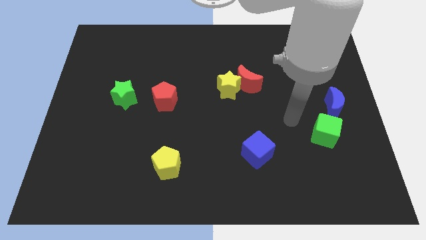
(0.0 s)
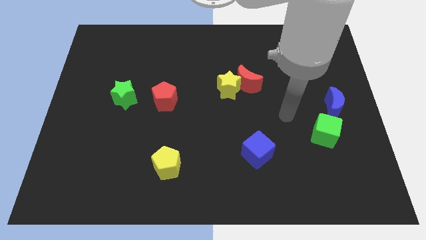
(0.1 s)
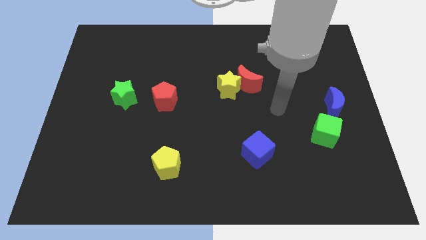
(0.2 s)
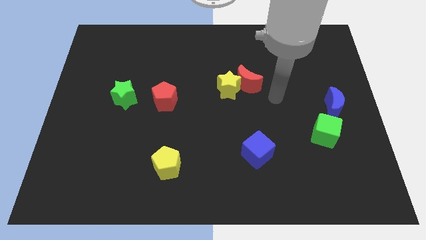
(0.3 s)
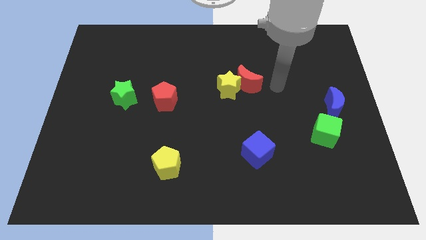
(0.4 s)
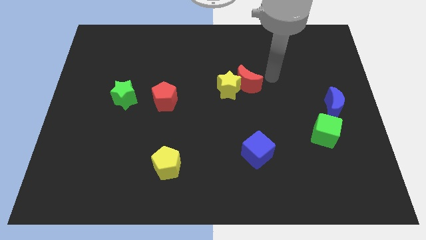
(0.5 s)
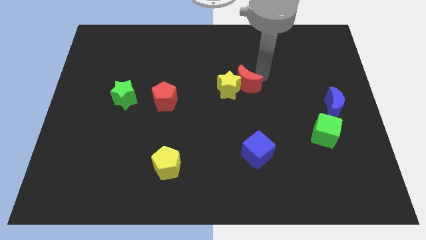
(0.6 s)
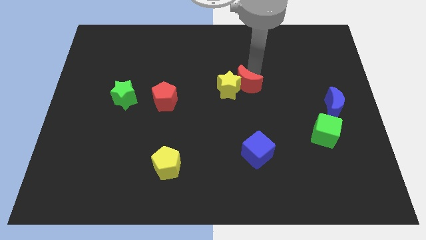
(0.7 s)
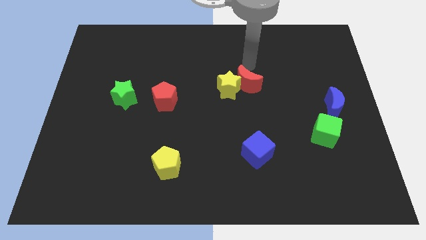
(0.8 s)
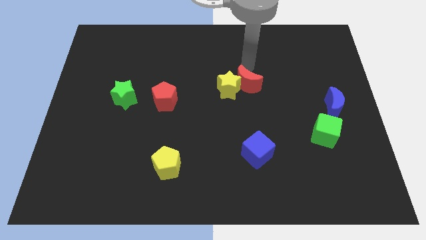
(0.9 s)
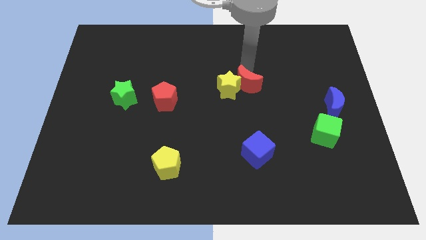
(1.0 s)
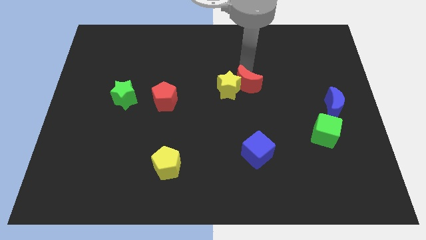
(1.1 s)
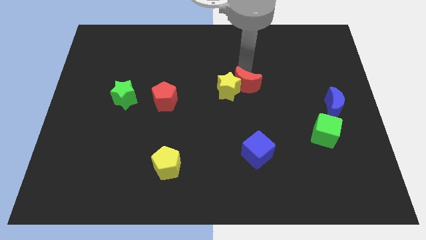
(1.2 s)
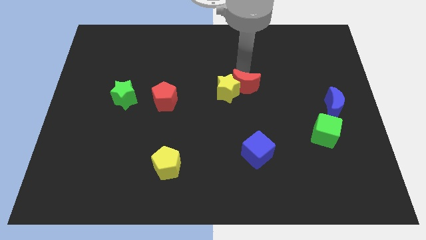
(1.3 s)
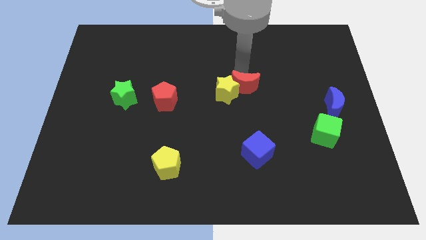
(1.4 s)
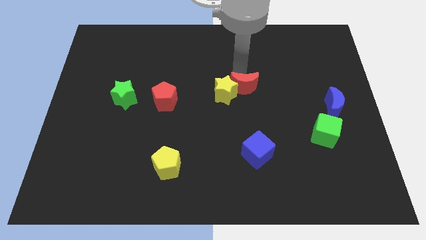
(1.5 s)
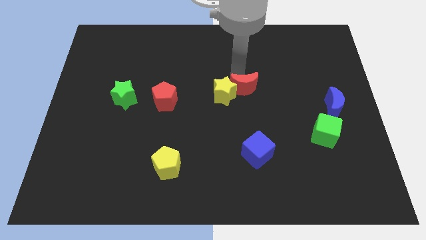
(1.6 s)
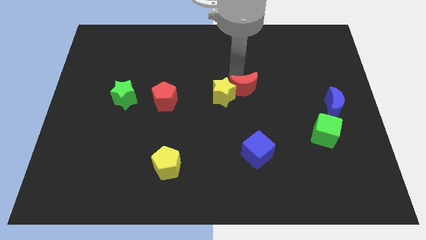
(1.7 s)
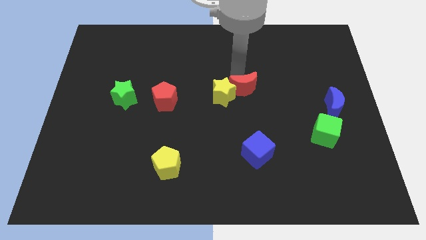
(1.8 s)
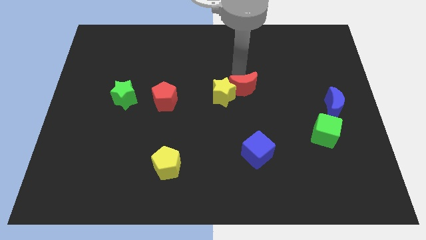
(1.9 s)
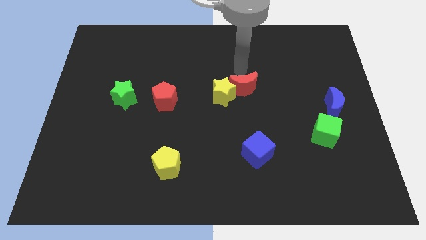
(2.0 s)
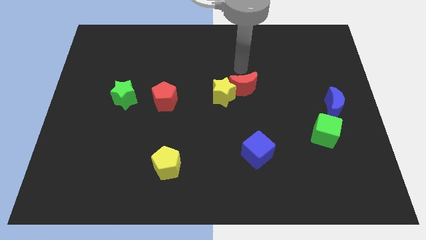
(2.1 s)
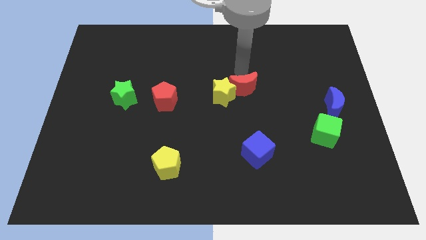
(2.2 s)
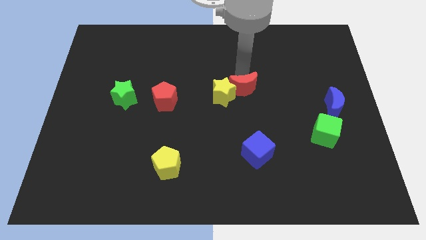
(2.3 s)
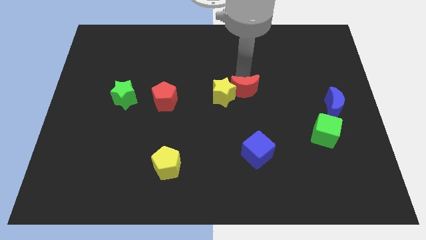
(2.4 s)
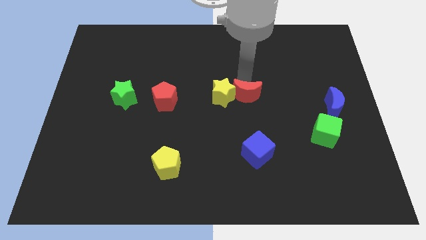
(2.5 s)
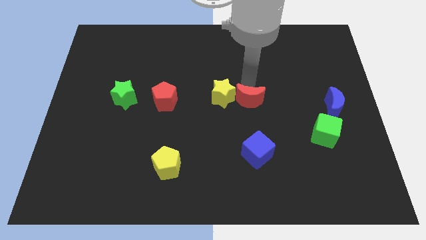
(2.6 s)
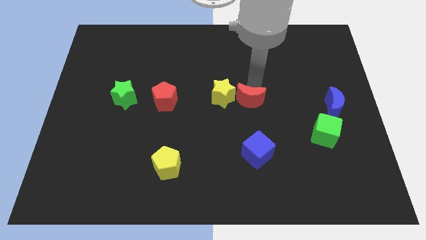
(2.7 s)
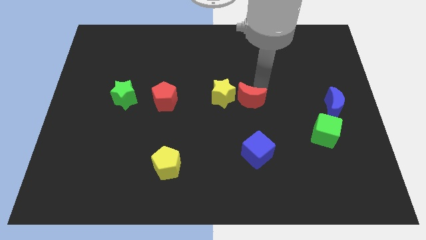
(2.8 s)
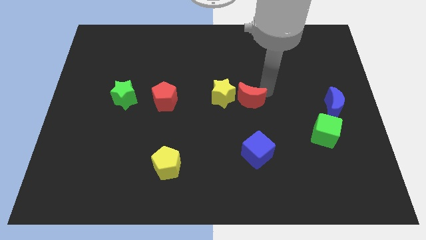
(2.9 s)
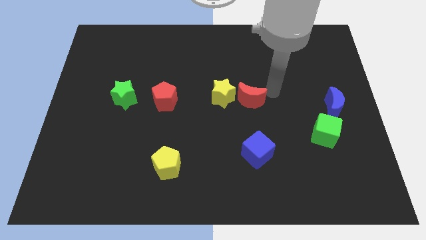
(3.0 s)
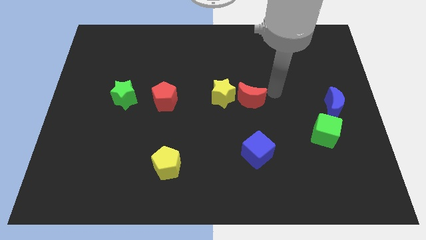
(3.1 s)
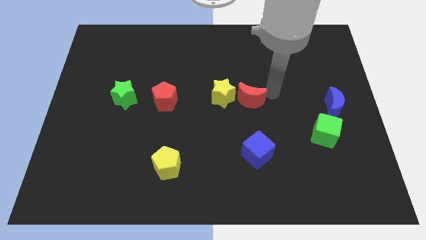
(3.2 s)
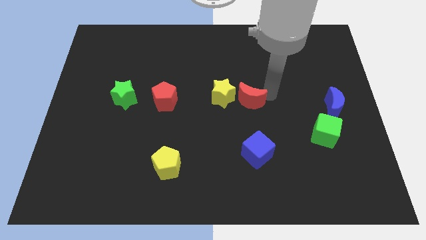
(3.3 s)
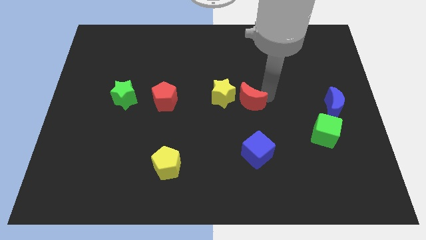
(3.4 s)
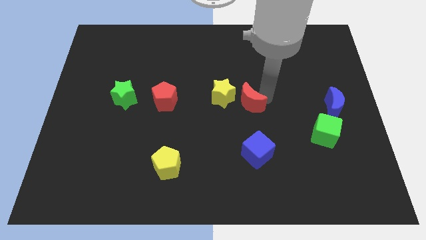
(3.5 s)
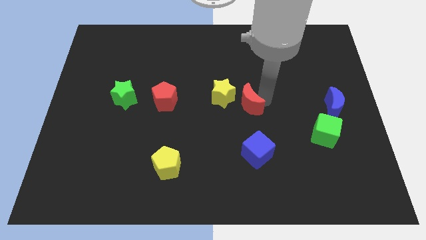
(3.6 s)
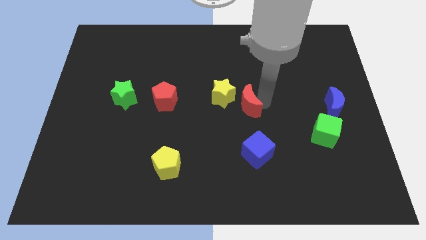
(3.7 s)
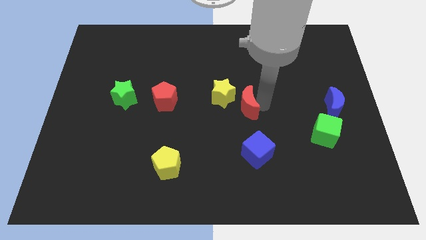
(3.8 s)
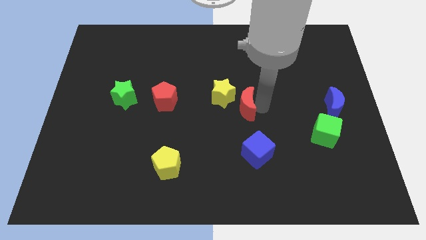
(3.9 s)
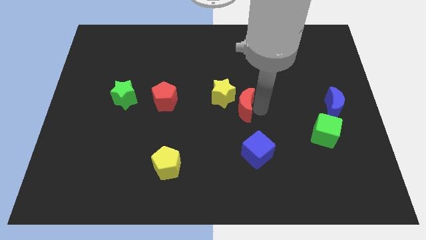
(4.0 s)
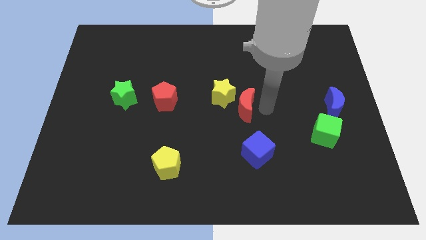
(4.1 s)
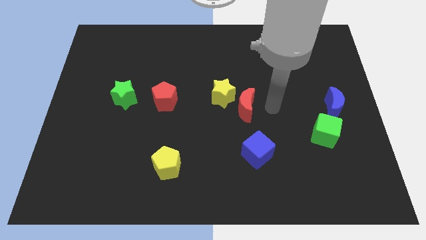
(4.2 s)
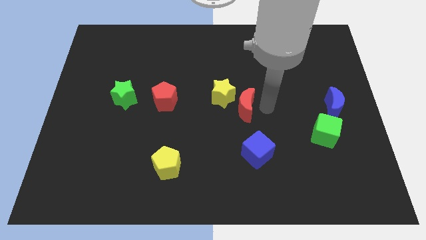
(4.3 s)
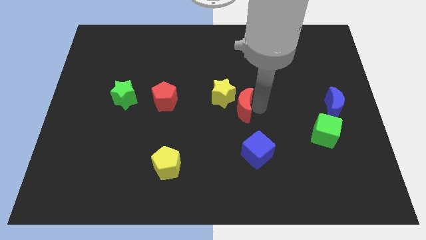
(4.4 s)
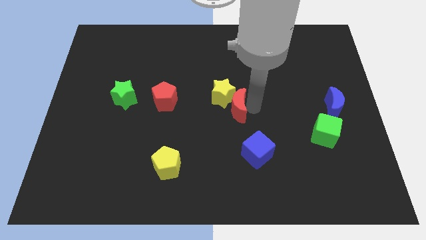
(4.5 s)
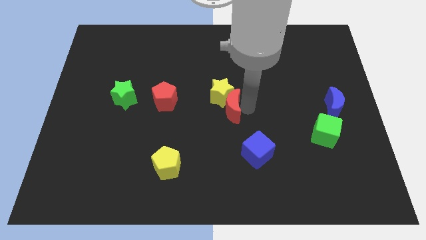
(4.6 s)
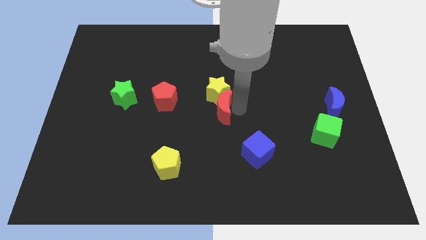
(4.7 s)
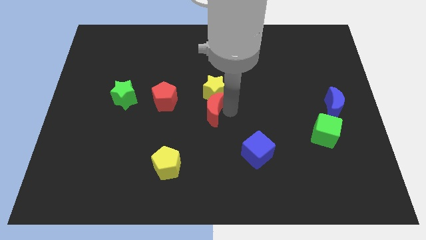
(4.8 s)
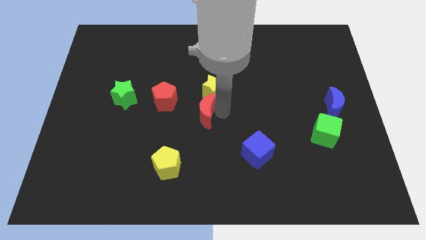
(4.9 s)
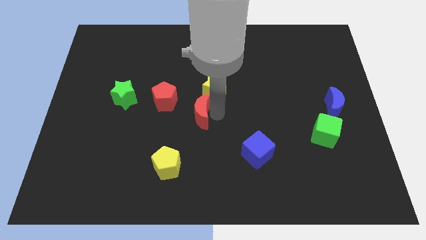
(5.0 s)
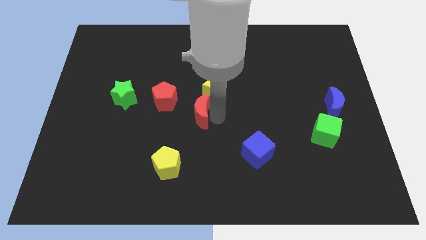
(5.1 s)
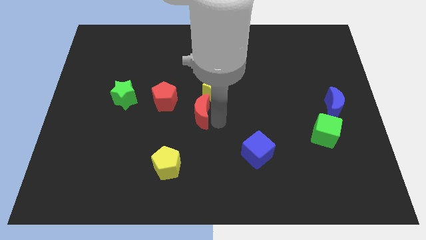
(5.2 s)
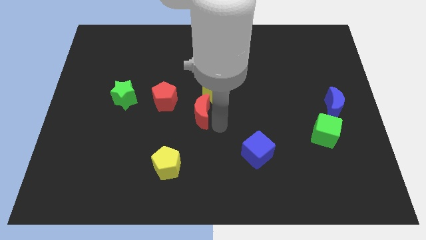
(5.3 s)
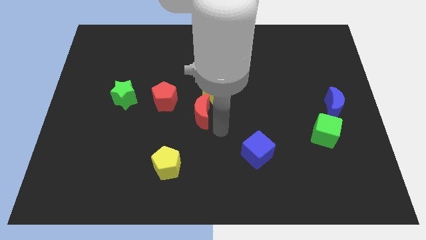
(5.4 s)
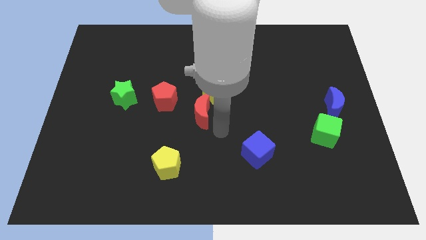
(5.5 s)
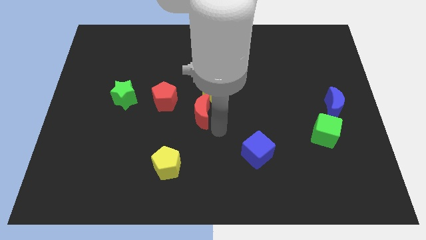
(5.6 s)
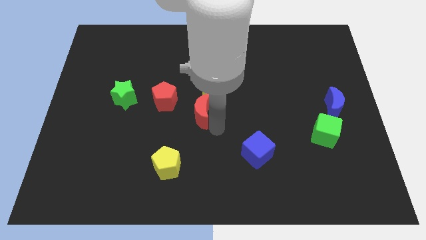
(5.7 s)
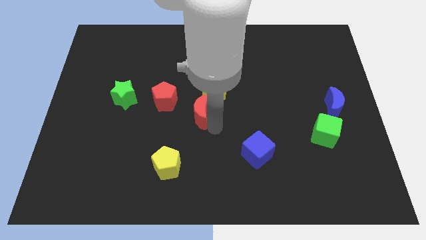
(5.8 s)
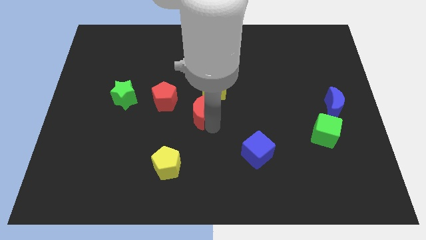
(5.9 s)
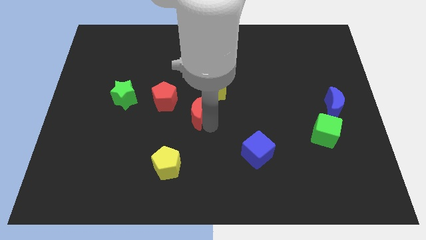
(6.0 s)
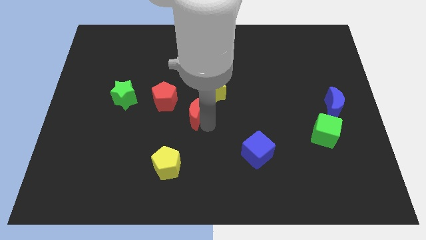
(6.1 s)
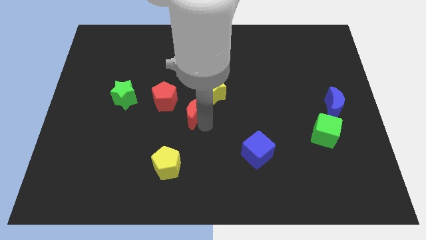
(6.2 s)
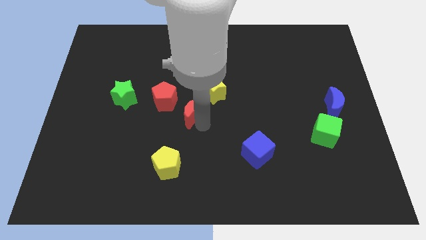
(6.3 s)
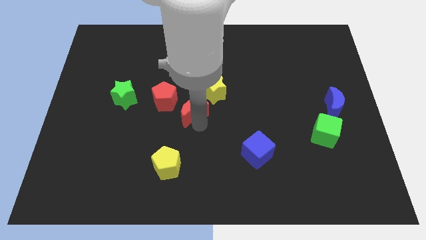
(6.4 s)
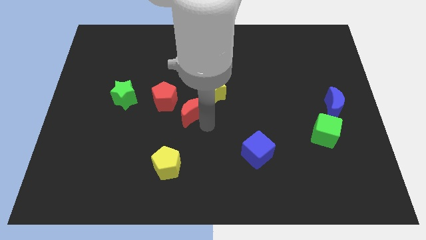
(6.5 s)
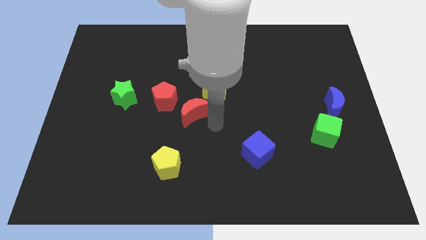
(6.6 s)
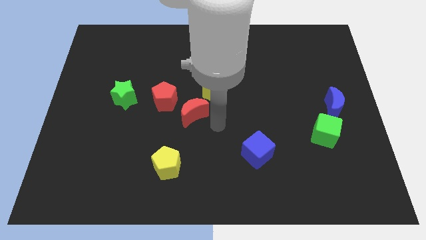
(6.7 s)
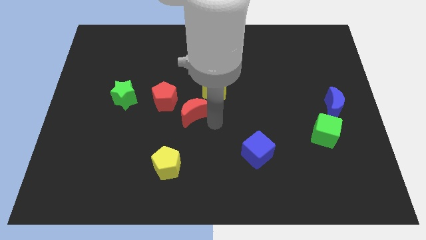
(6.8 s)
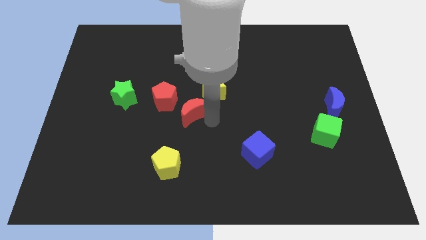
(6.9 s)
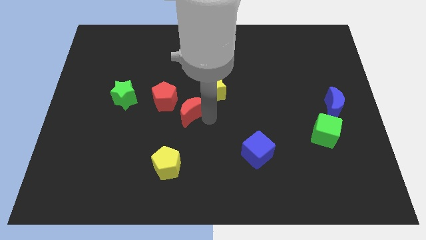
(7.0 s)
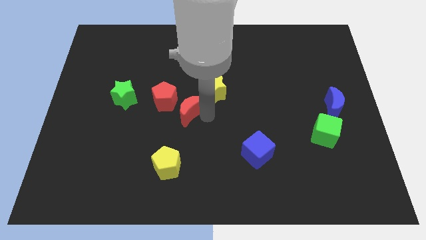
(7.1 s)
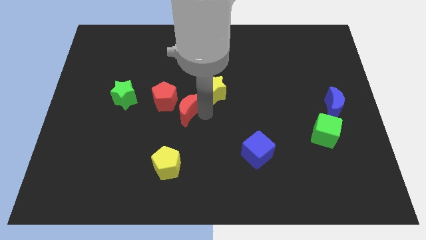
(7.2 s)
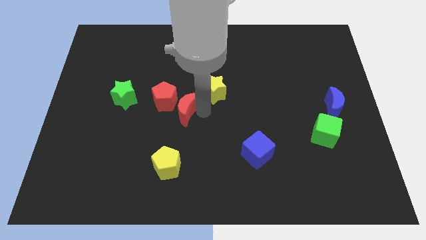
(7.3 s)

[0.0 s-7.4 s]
move the red moon towards the red pentagon
